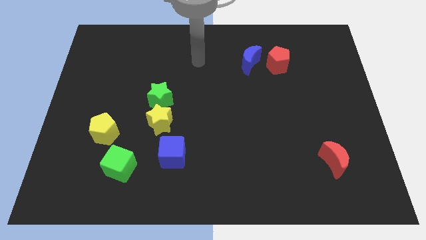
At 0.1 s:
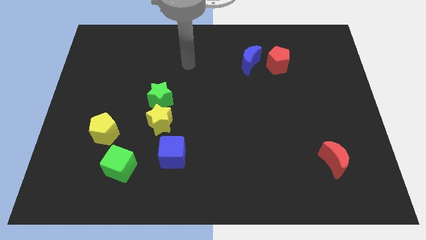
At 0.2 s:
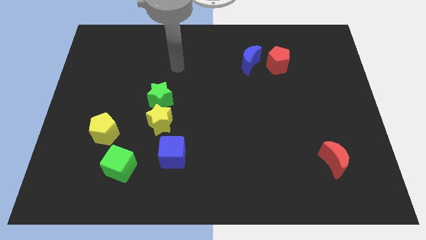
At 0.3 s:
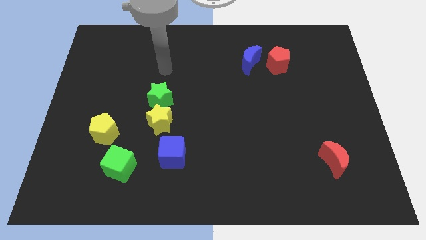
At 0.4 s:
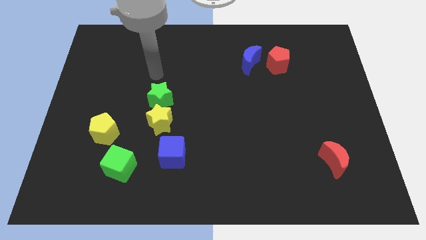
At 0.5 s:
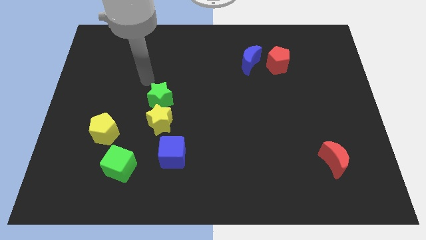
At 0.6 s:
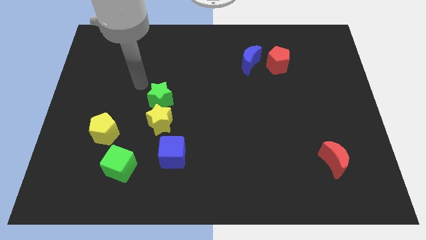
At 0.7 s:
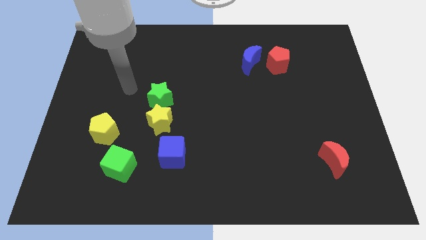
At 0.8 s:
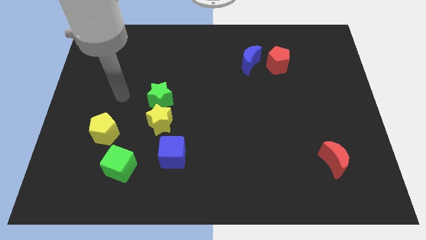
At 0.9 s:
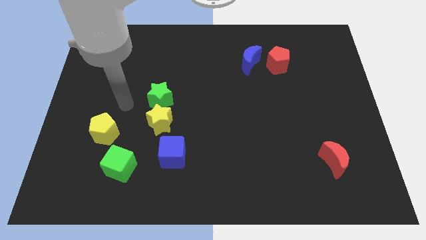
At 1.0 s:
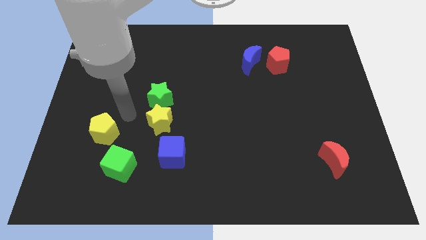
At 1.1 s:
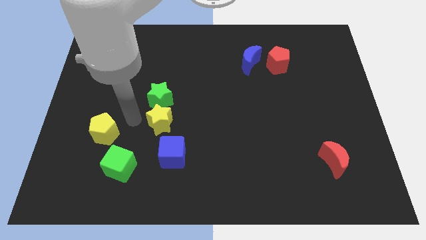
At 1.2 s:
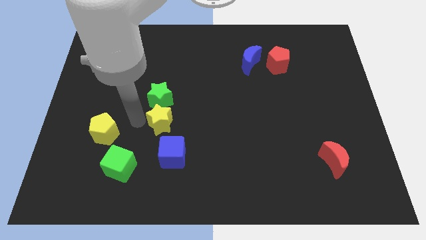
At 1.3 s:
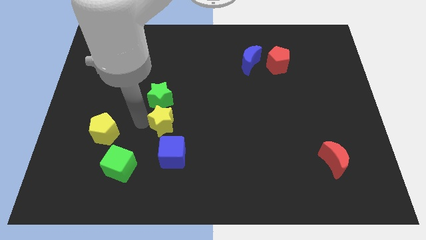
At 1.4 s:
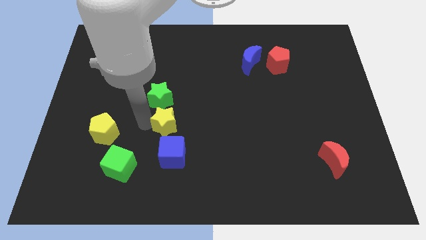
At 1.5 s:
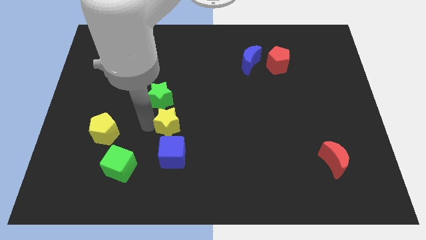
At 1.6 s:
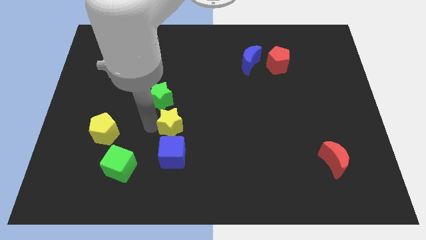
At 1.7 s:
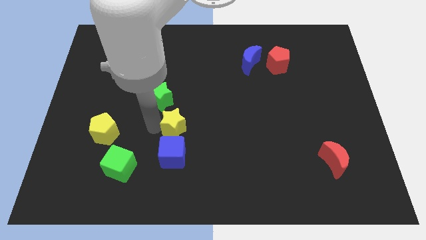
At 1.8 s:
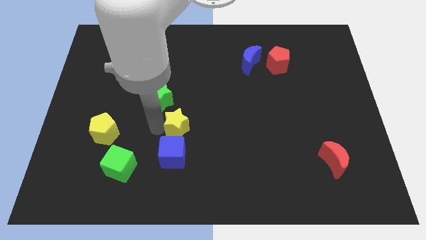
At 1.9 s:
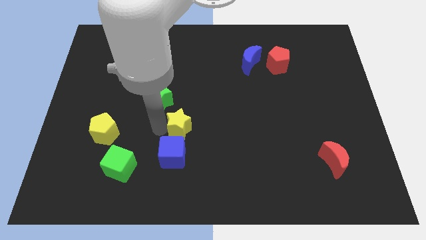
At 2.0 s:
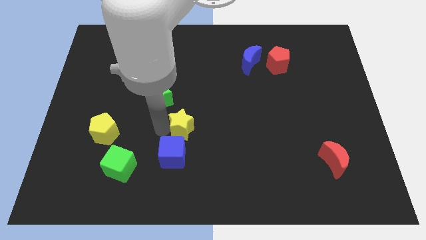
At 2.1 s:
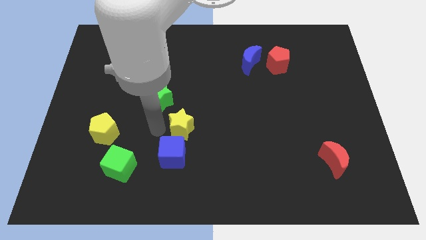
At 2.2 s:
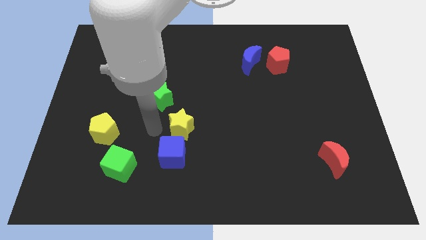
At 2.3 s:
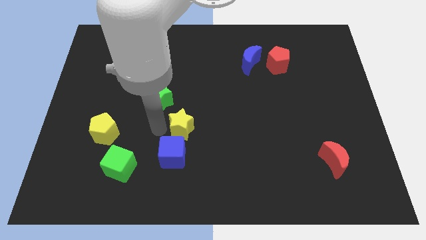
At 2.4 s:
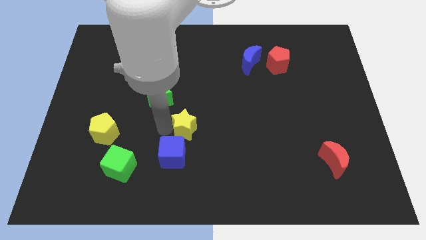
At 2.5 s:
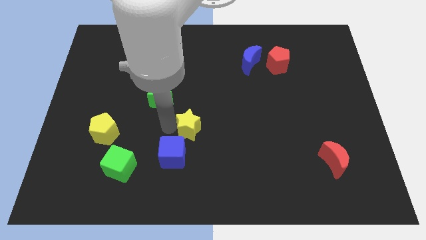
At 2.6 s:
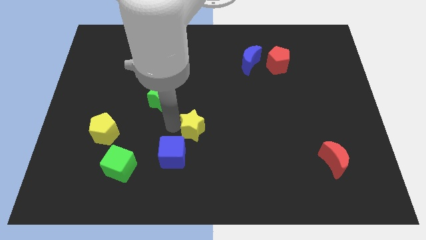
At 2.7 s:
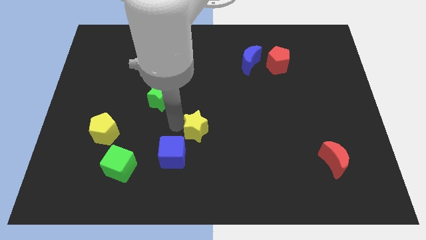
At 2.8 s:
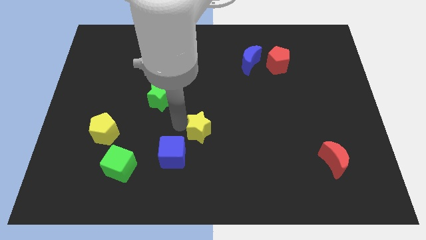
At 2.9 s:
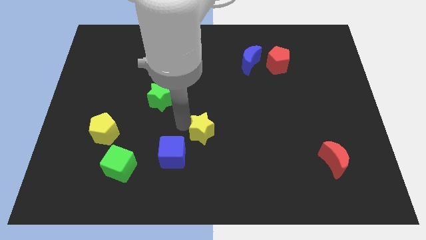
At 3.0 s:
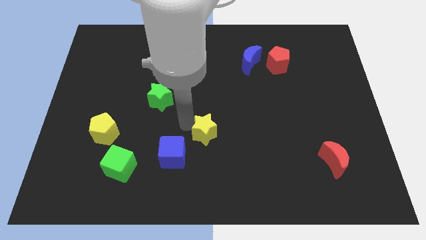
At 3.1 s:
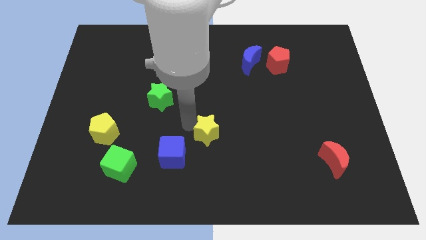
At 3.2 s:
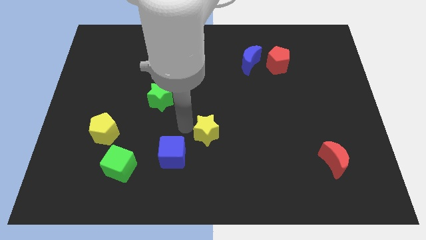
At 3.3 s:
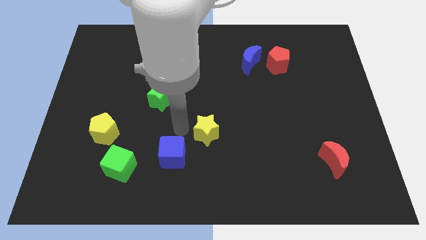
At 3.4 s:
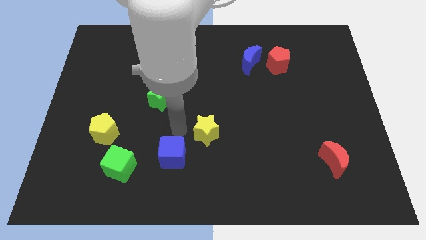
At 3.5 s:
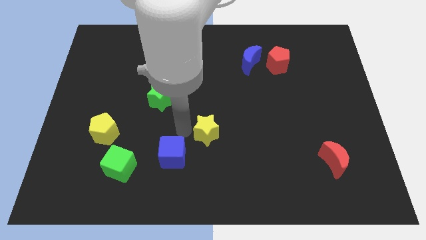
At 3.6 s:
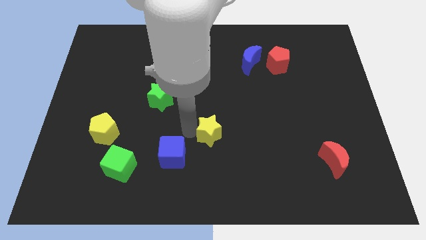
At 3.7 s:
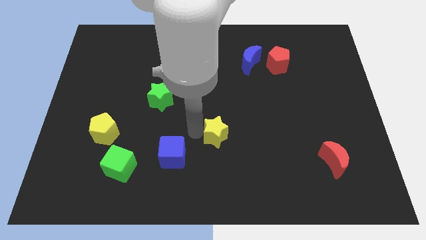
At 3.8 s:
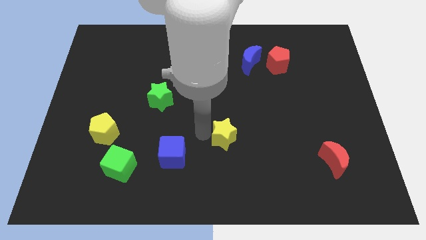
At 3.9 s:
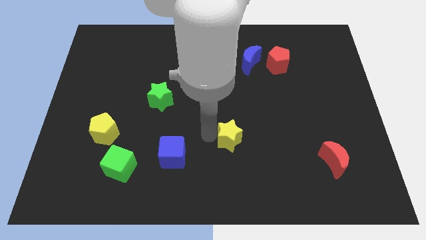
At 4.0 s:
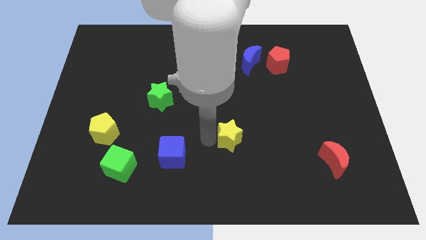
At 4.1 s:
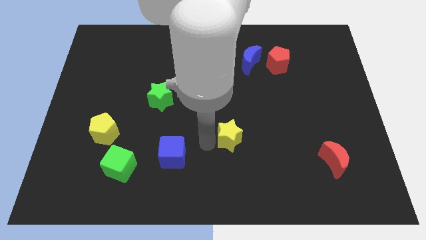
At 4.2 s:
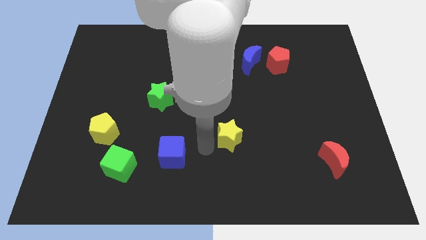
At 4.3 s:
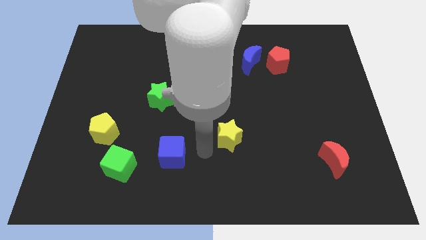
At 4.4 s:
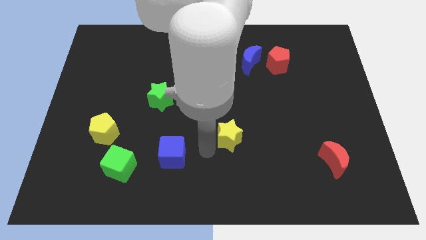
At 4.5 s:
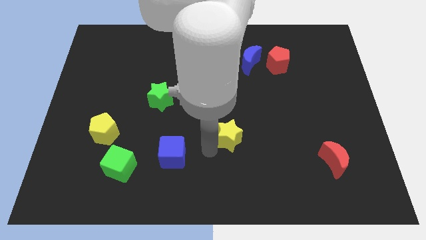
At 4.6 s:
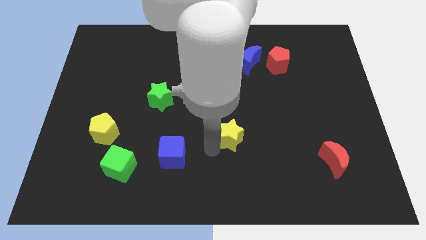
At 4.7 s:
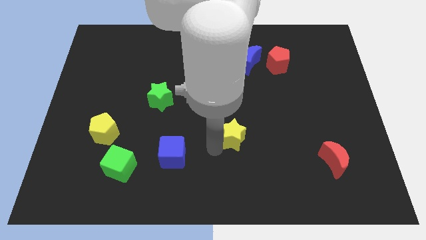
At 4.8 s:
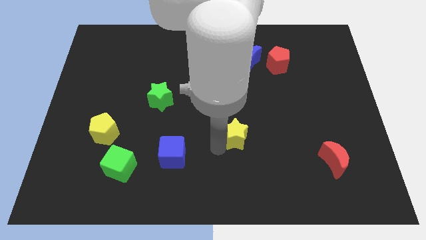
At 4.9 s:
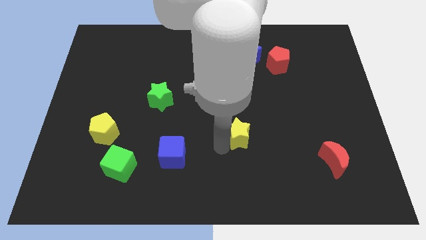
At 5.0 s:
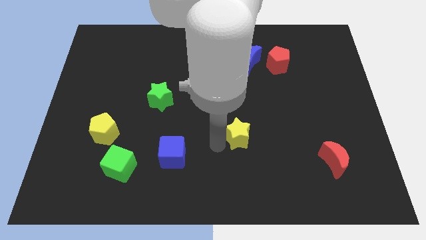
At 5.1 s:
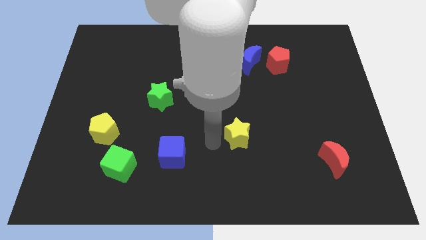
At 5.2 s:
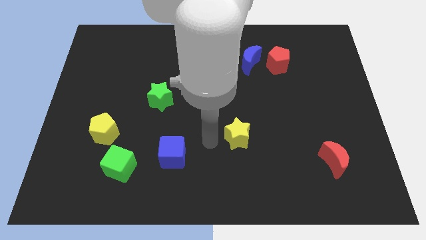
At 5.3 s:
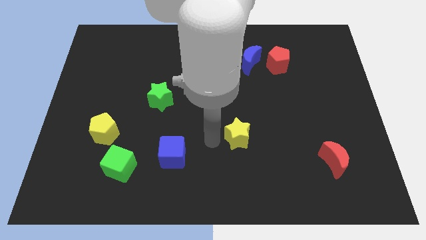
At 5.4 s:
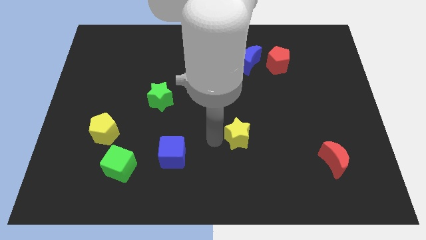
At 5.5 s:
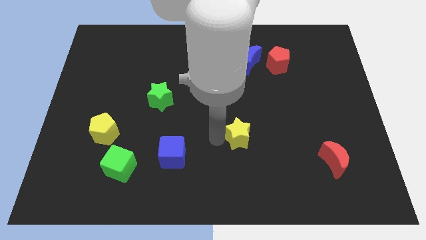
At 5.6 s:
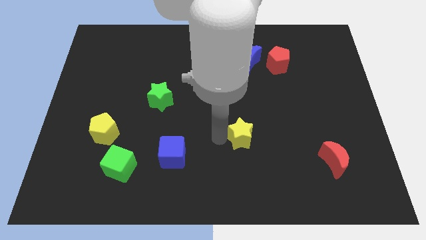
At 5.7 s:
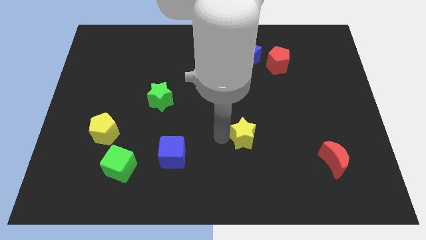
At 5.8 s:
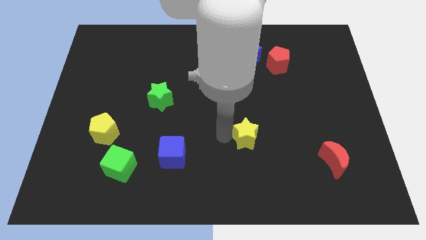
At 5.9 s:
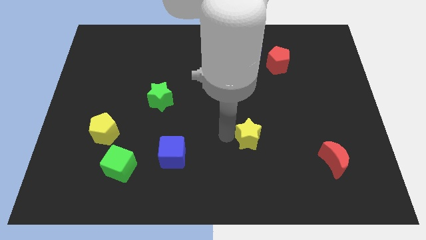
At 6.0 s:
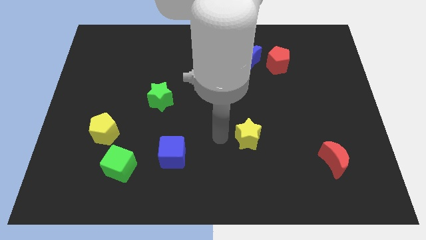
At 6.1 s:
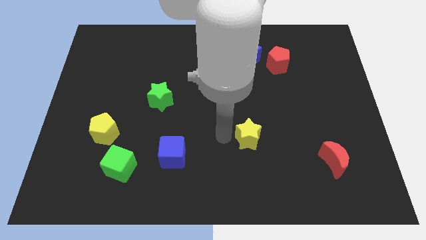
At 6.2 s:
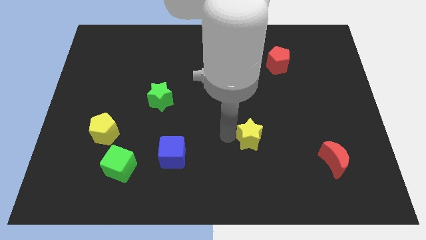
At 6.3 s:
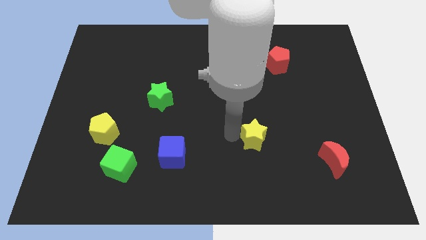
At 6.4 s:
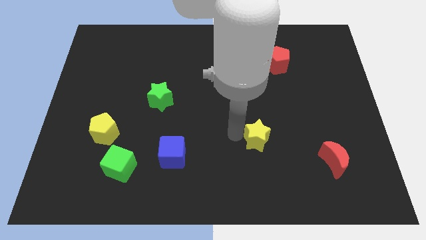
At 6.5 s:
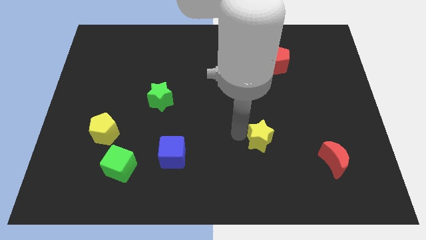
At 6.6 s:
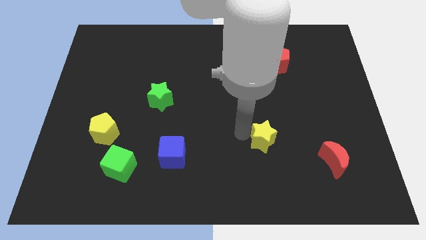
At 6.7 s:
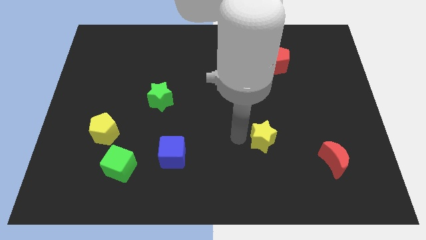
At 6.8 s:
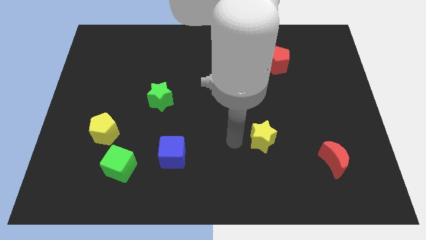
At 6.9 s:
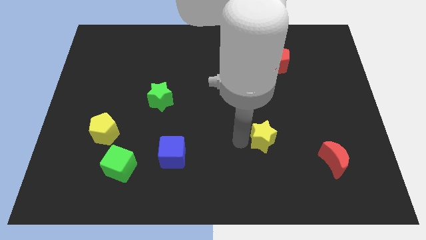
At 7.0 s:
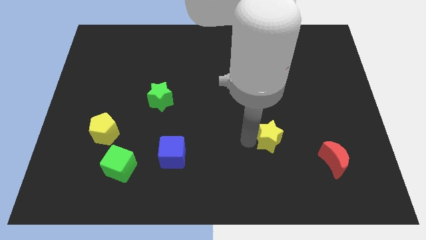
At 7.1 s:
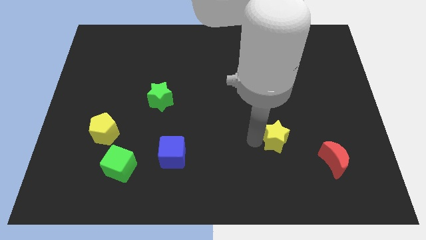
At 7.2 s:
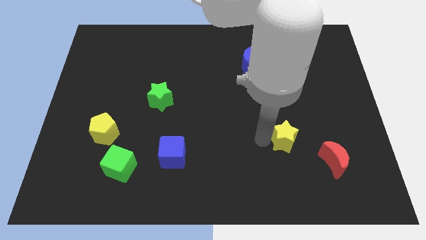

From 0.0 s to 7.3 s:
move the yellow star to the top left of the red moon

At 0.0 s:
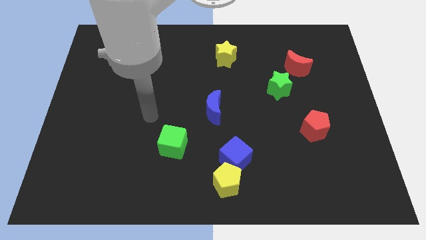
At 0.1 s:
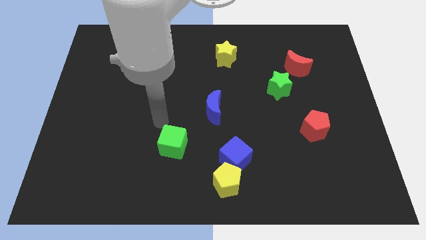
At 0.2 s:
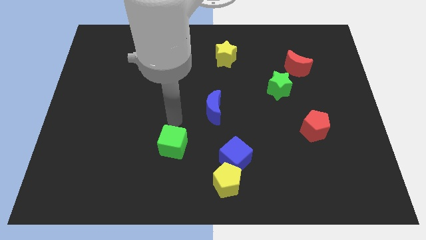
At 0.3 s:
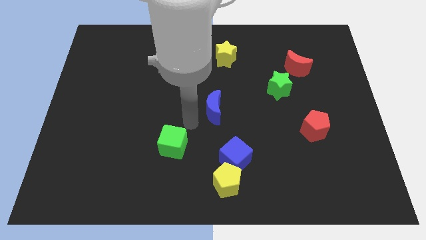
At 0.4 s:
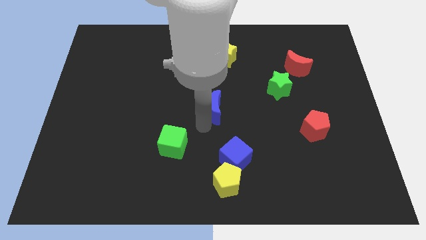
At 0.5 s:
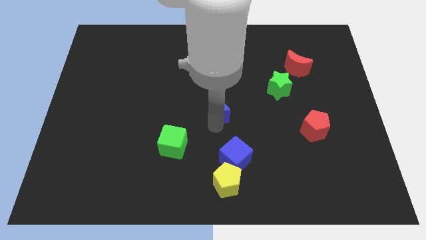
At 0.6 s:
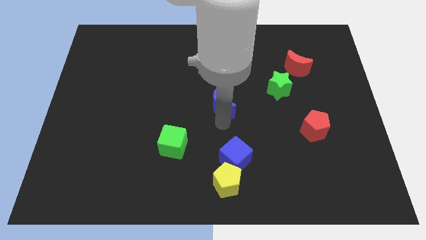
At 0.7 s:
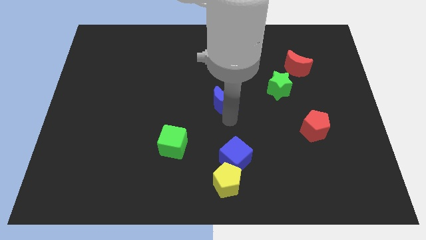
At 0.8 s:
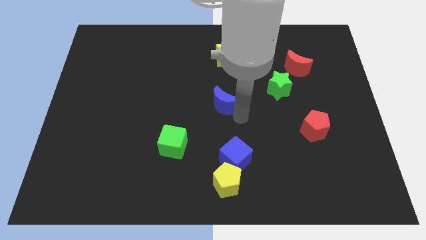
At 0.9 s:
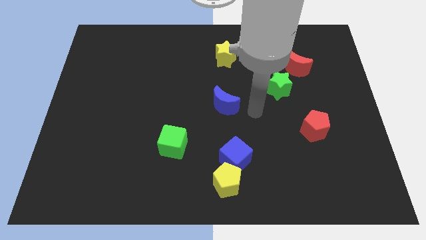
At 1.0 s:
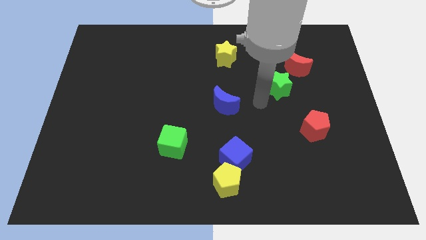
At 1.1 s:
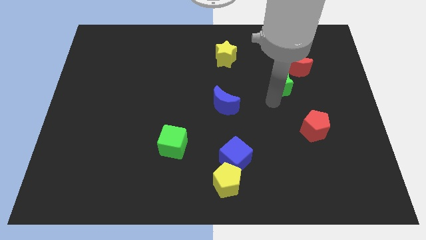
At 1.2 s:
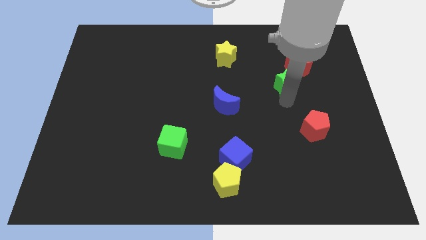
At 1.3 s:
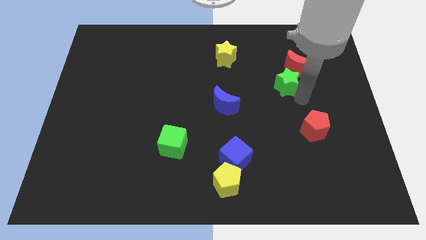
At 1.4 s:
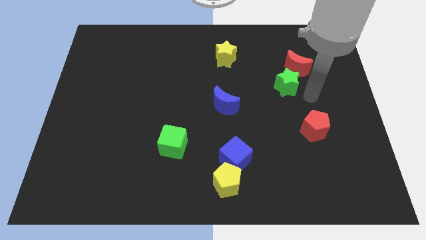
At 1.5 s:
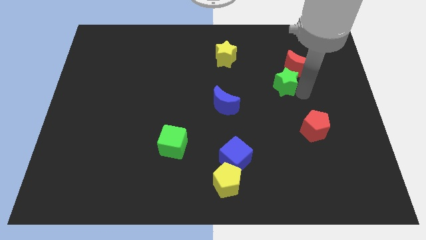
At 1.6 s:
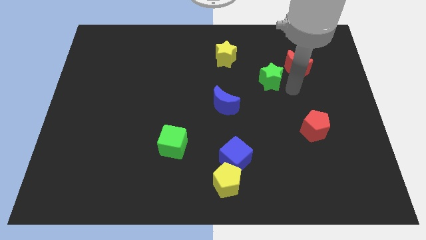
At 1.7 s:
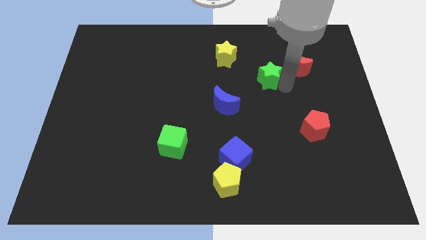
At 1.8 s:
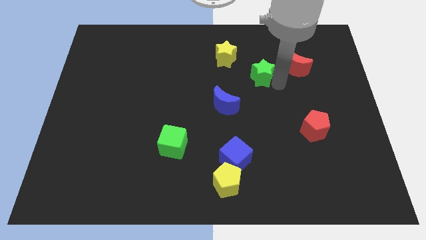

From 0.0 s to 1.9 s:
slide the green star to the bottom right side of the yellow star
